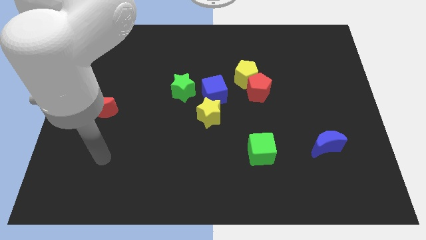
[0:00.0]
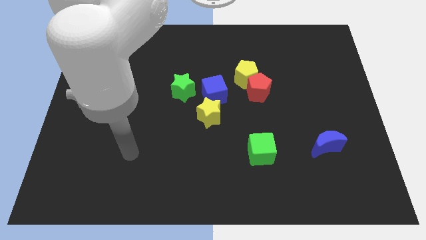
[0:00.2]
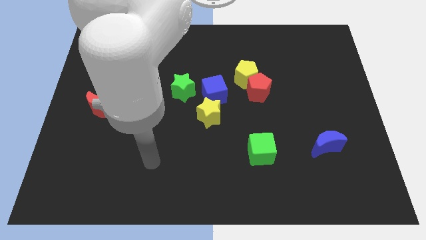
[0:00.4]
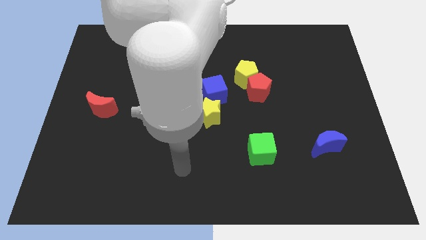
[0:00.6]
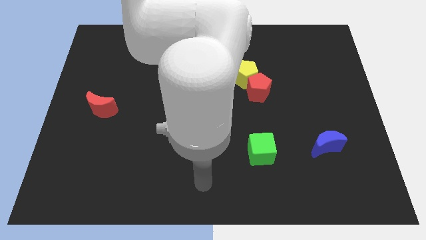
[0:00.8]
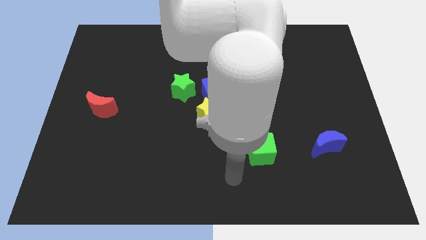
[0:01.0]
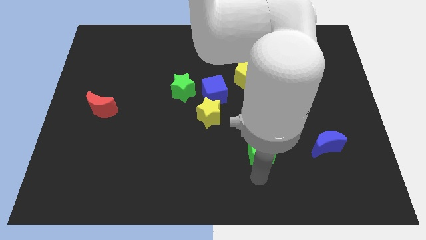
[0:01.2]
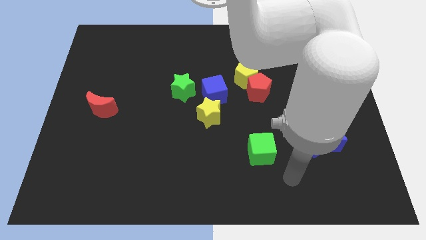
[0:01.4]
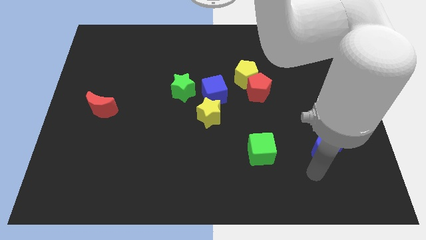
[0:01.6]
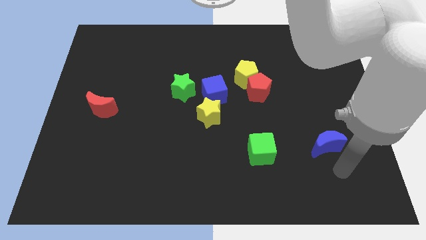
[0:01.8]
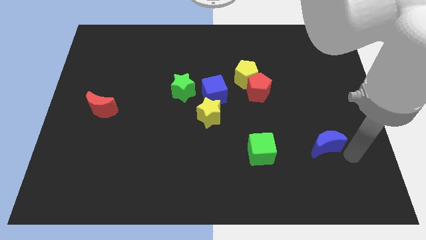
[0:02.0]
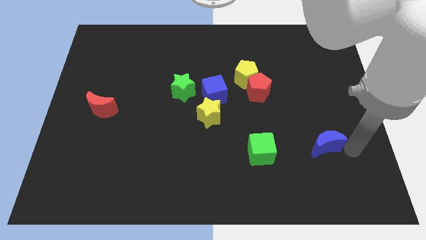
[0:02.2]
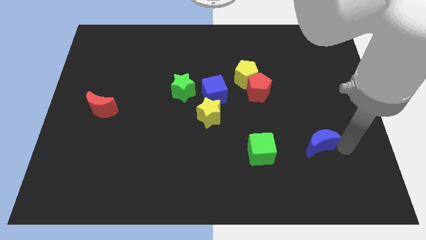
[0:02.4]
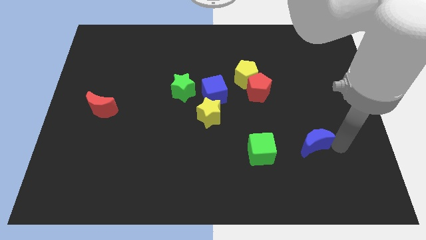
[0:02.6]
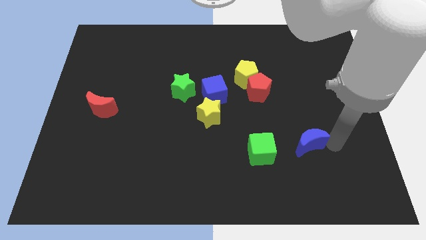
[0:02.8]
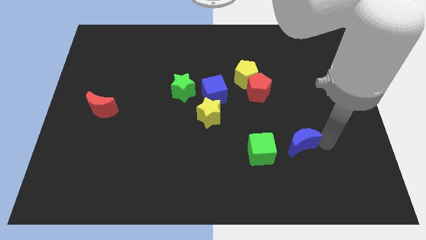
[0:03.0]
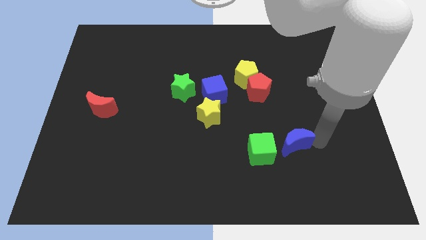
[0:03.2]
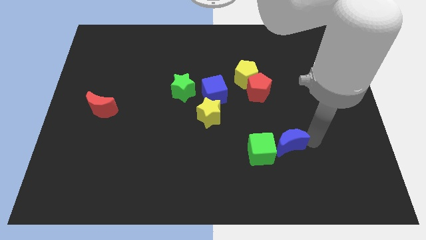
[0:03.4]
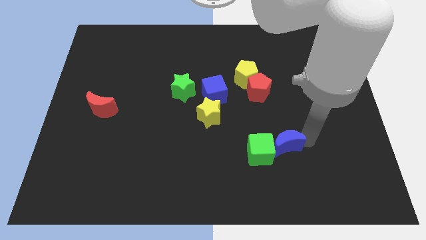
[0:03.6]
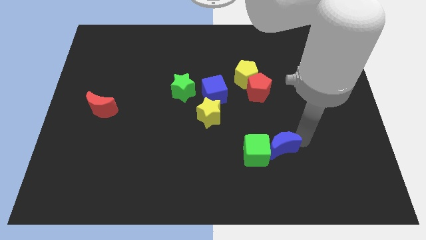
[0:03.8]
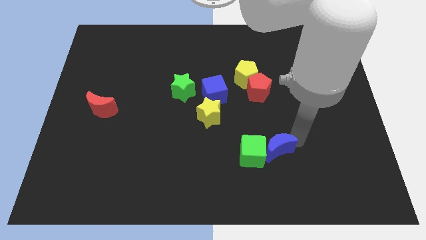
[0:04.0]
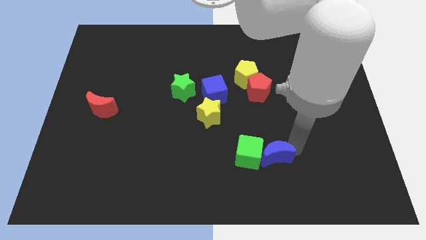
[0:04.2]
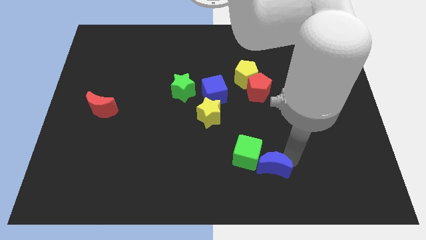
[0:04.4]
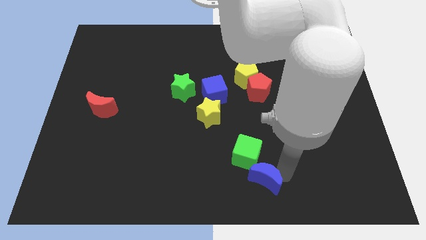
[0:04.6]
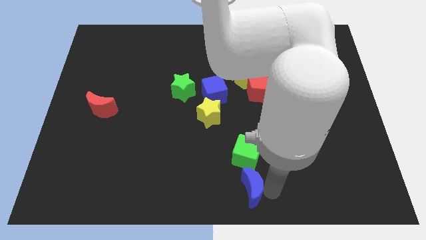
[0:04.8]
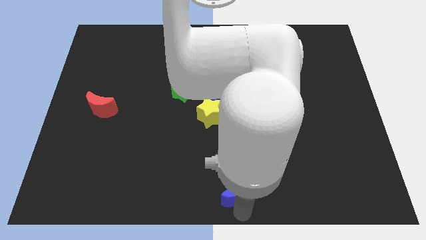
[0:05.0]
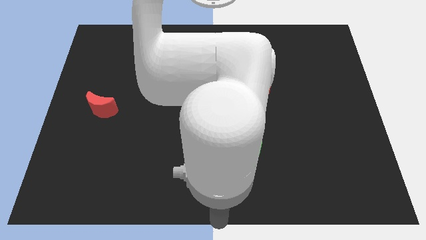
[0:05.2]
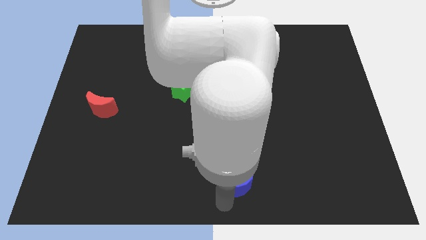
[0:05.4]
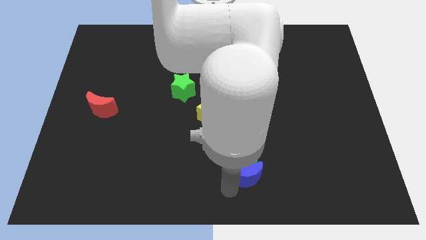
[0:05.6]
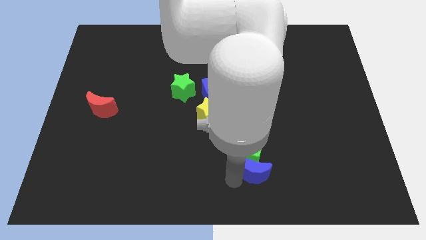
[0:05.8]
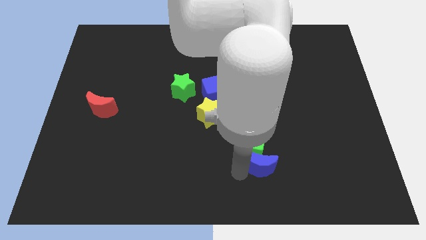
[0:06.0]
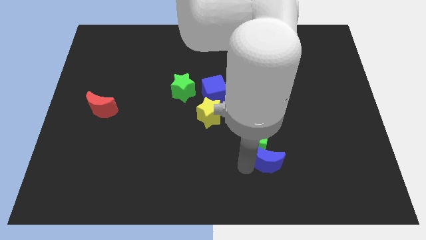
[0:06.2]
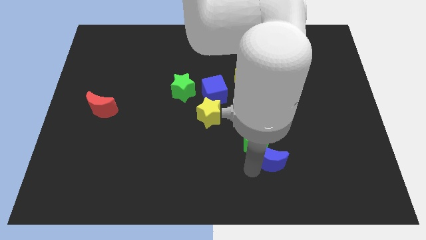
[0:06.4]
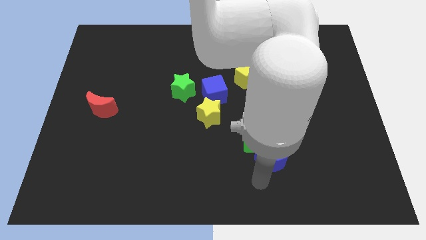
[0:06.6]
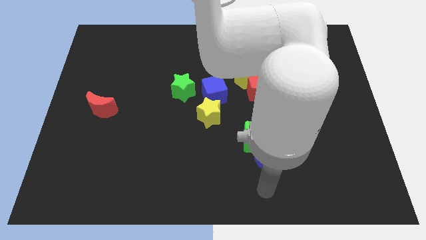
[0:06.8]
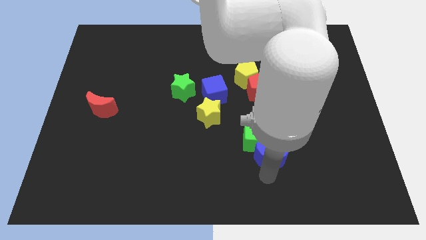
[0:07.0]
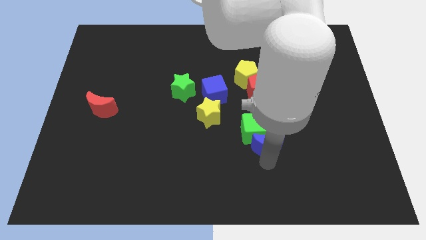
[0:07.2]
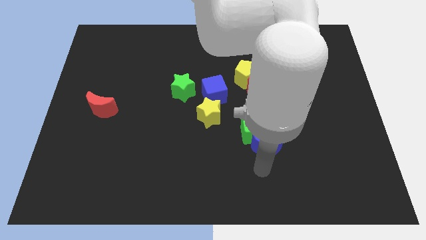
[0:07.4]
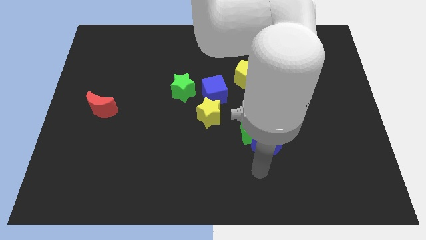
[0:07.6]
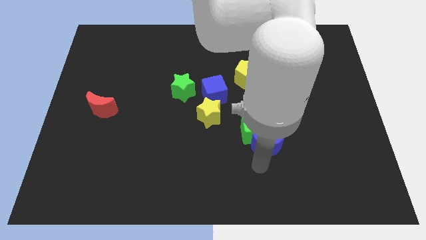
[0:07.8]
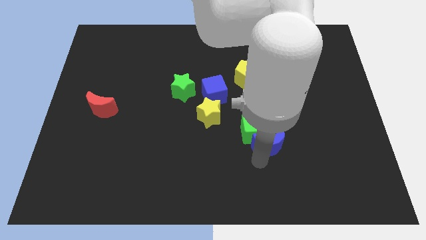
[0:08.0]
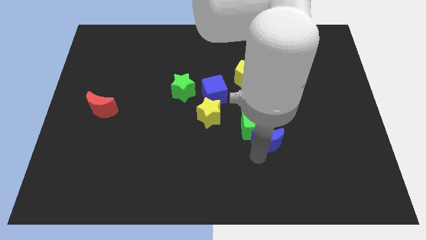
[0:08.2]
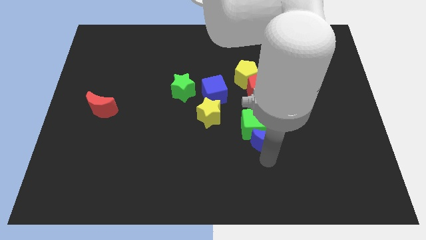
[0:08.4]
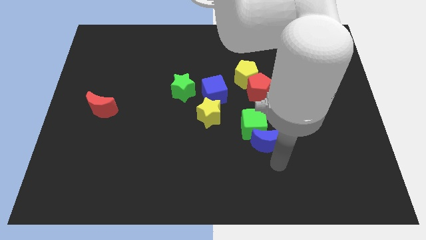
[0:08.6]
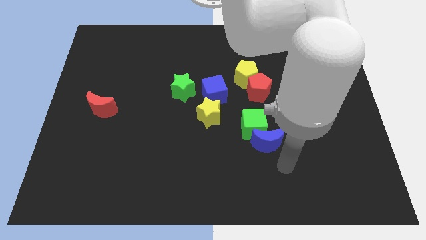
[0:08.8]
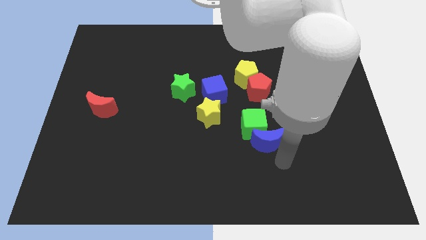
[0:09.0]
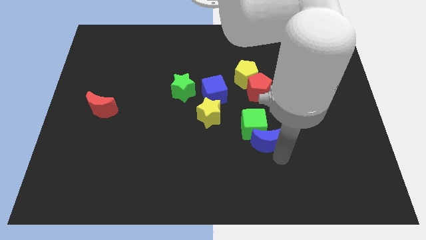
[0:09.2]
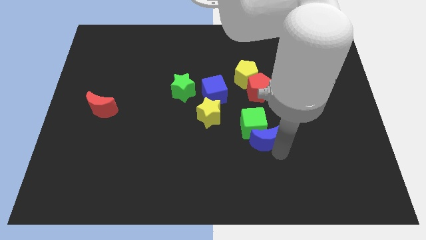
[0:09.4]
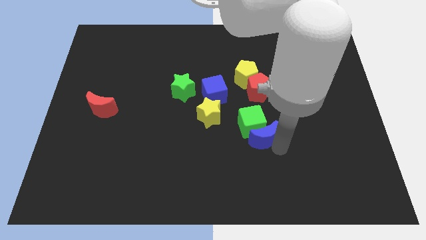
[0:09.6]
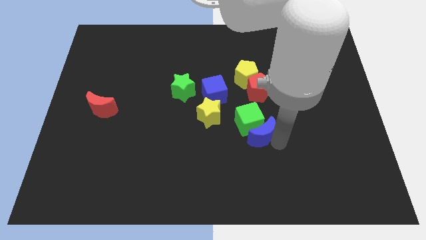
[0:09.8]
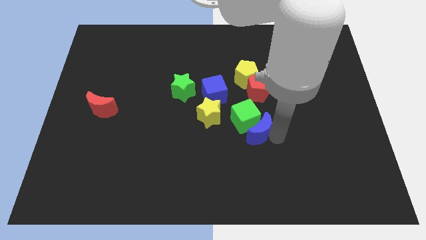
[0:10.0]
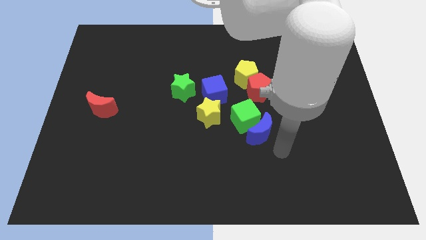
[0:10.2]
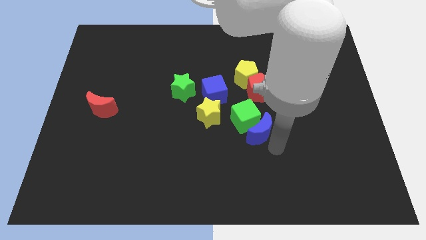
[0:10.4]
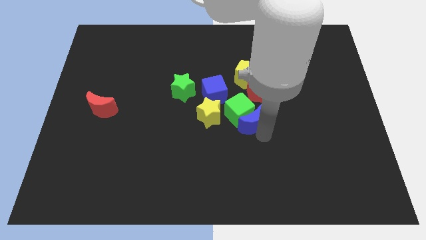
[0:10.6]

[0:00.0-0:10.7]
move the blue moon to the bottom right of the blue cube

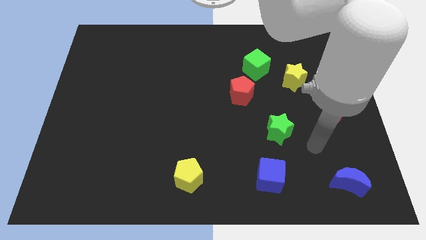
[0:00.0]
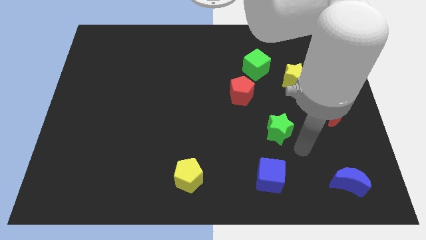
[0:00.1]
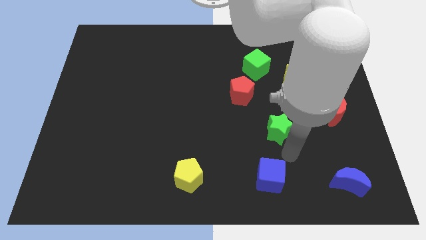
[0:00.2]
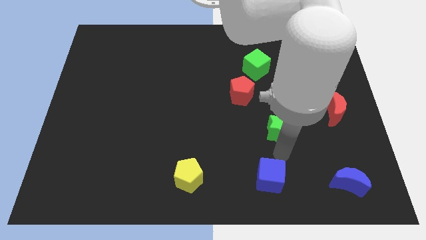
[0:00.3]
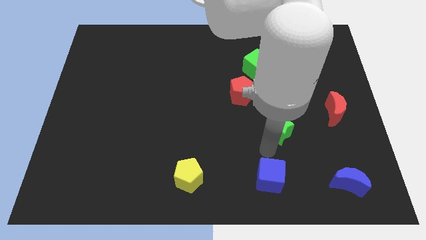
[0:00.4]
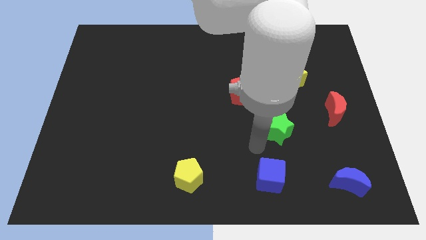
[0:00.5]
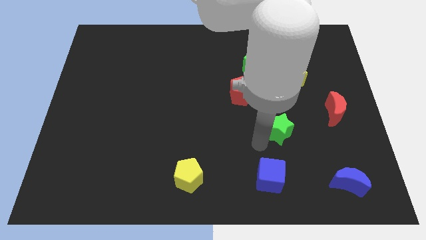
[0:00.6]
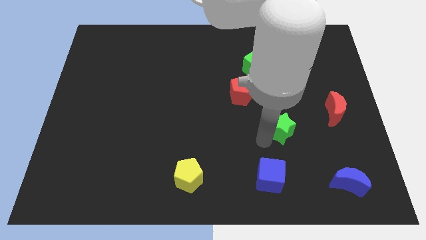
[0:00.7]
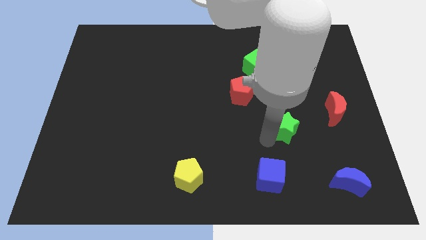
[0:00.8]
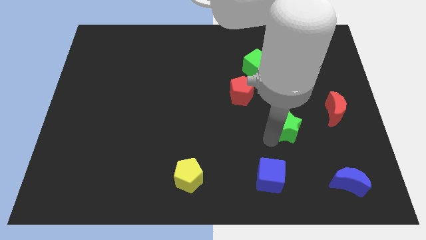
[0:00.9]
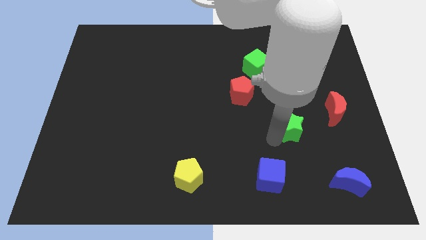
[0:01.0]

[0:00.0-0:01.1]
slide the green star to the bottom of the yellow star

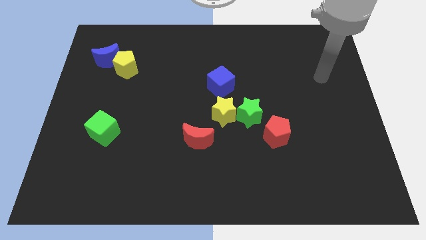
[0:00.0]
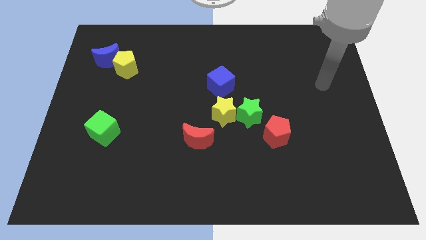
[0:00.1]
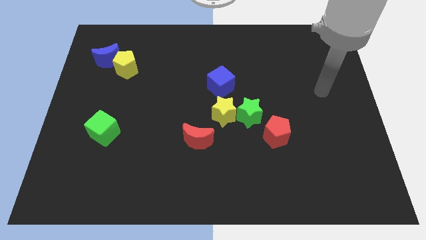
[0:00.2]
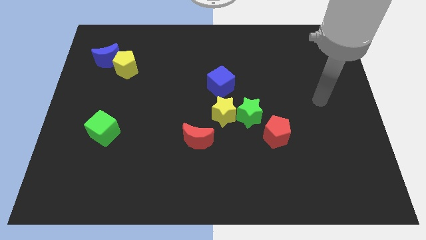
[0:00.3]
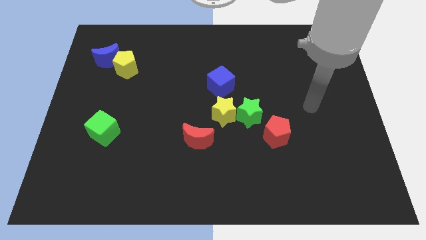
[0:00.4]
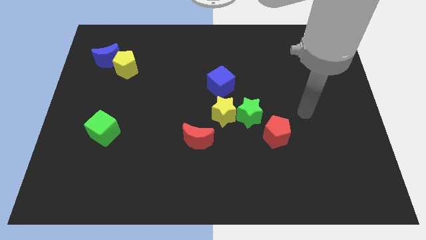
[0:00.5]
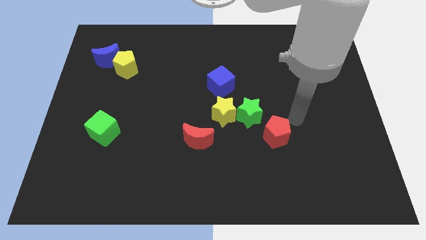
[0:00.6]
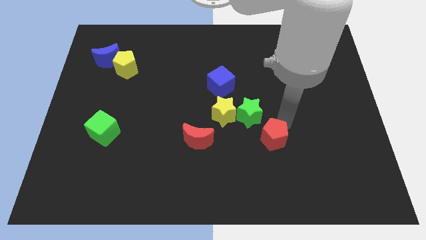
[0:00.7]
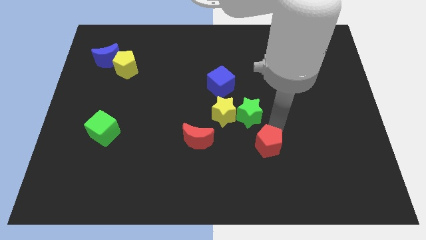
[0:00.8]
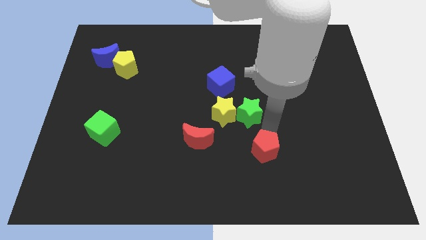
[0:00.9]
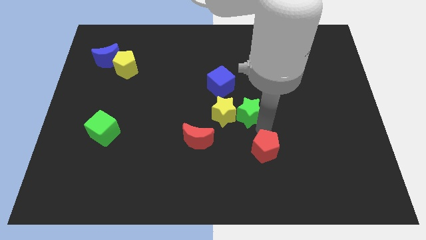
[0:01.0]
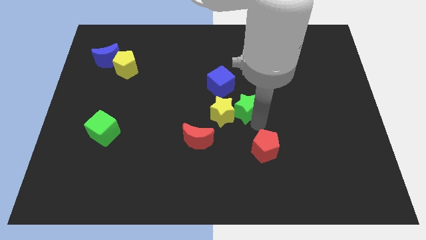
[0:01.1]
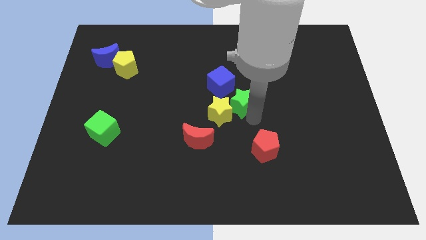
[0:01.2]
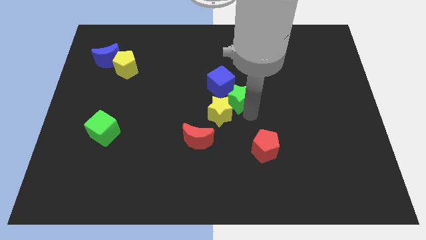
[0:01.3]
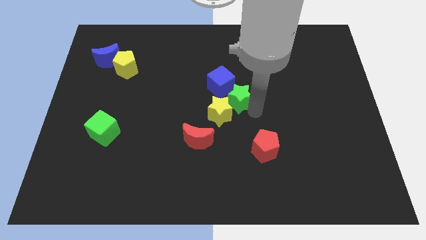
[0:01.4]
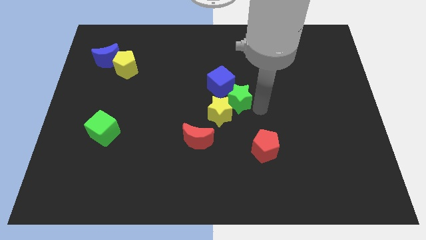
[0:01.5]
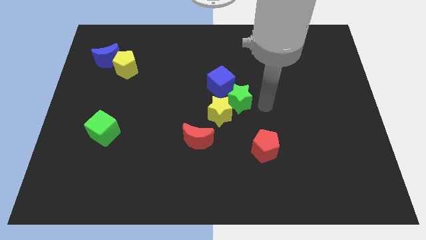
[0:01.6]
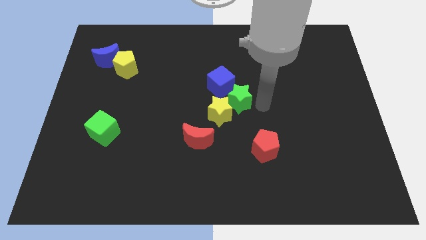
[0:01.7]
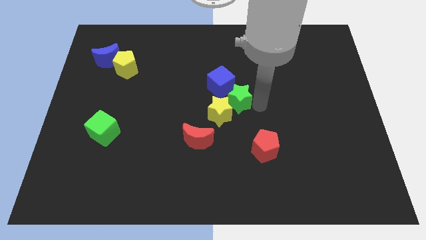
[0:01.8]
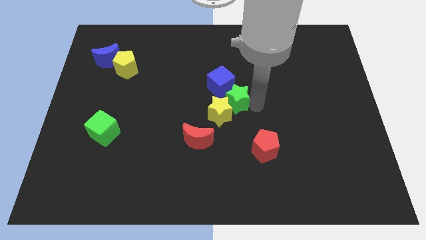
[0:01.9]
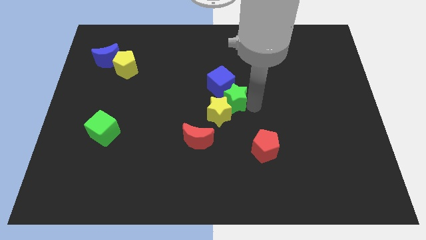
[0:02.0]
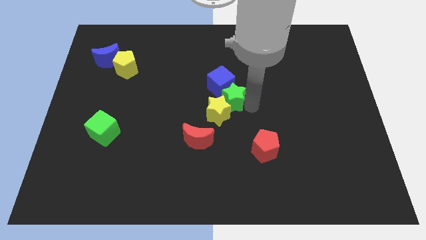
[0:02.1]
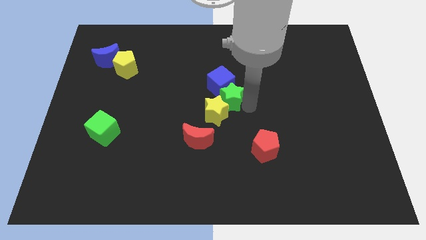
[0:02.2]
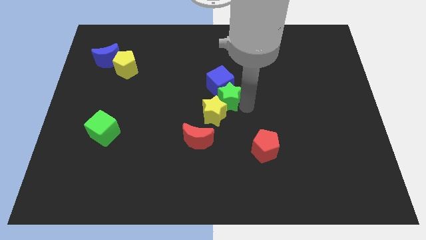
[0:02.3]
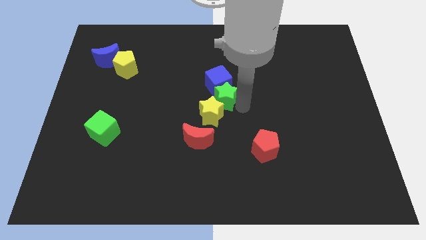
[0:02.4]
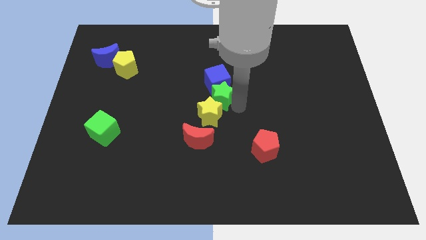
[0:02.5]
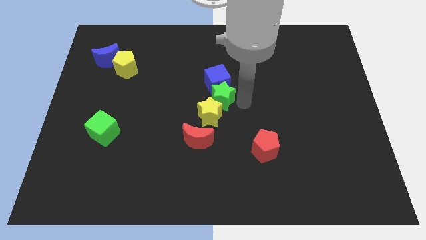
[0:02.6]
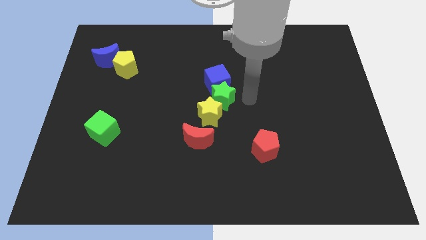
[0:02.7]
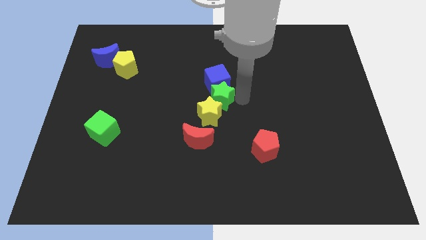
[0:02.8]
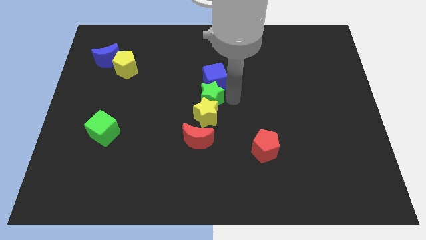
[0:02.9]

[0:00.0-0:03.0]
push the green star to the top left side of the yellow star
